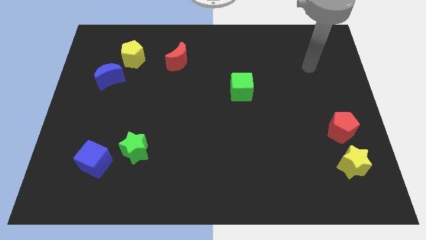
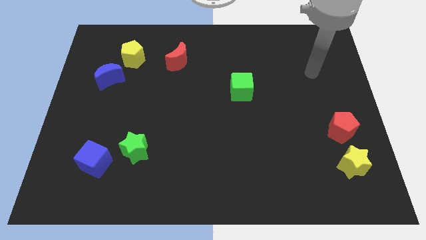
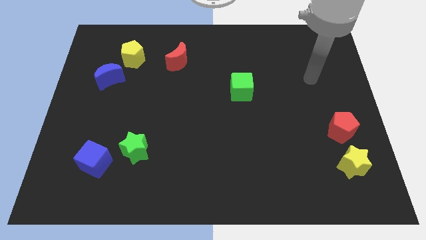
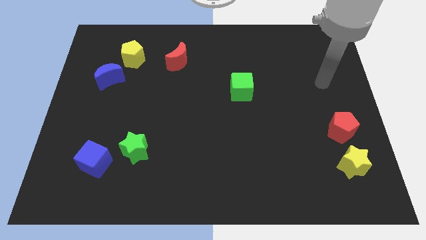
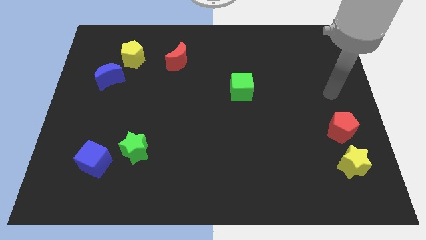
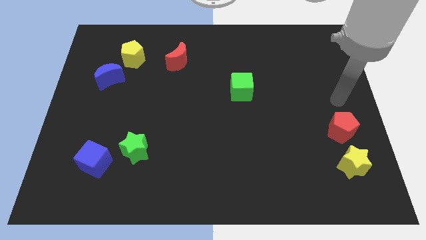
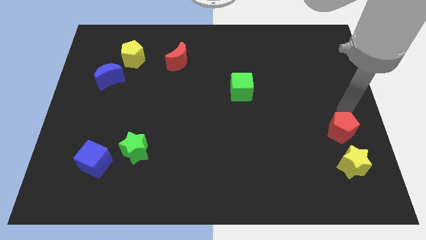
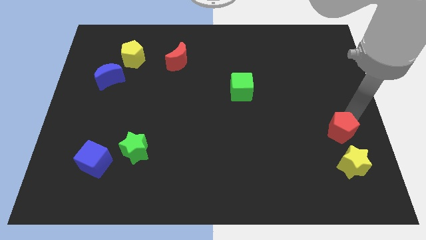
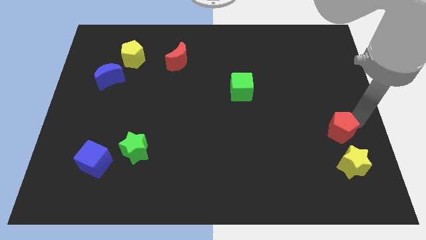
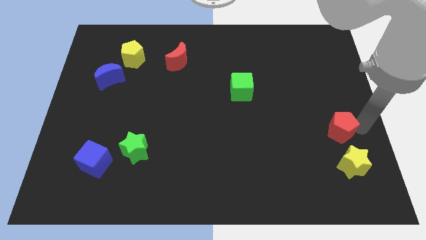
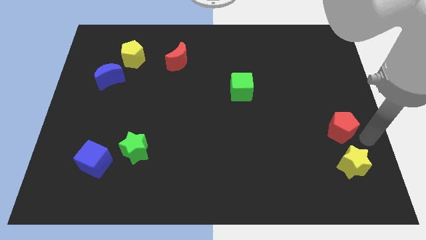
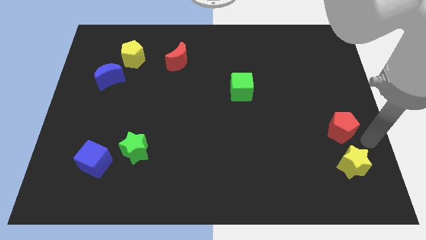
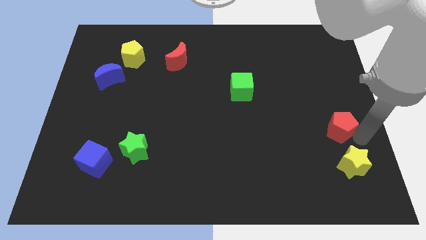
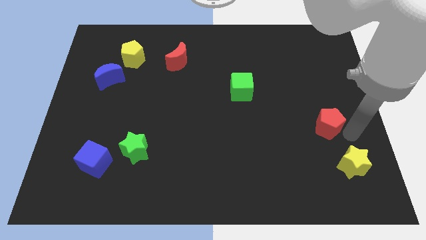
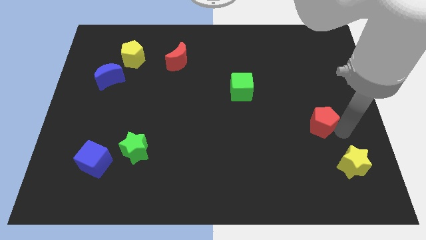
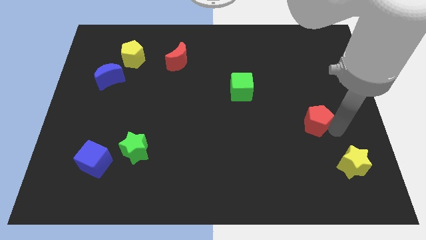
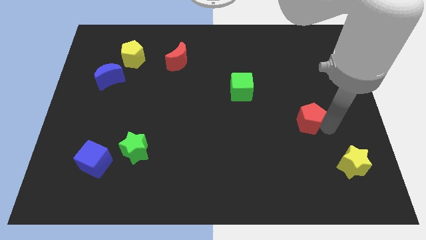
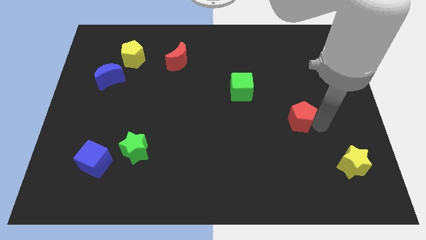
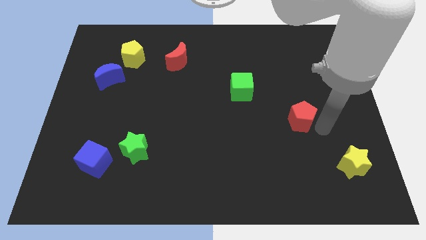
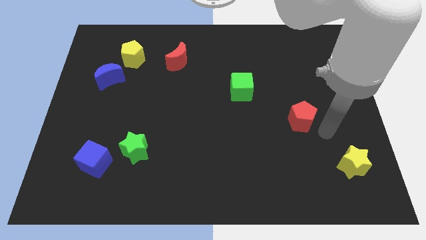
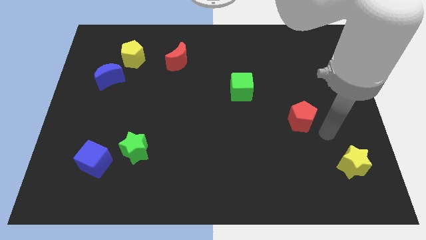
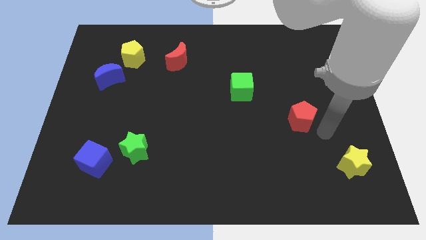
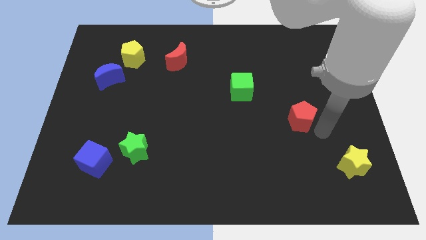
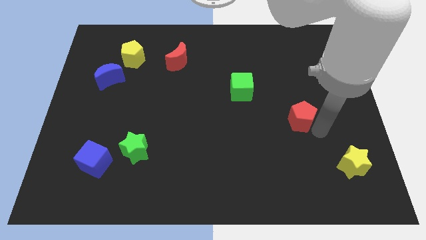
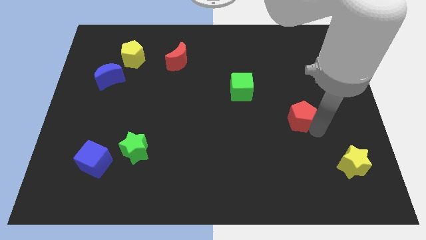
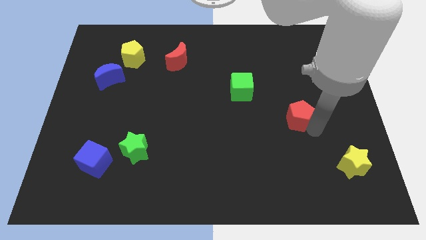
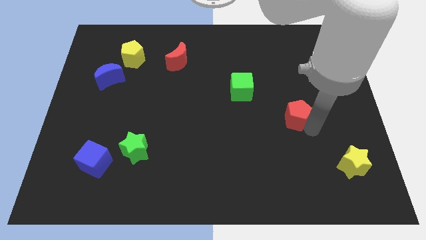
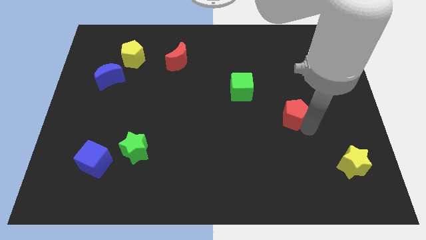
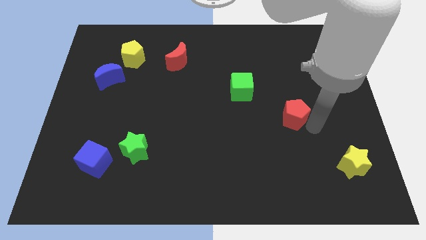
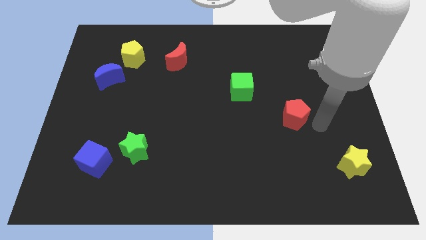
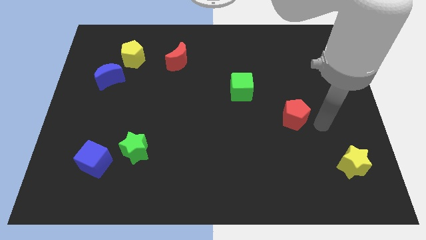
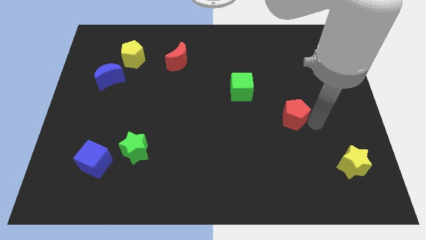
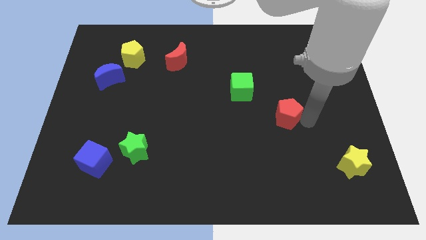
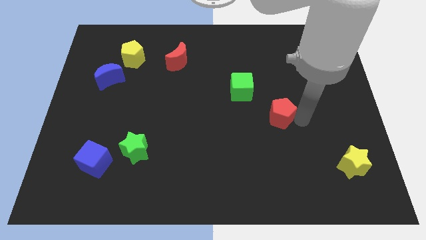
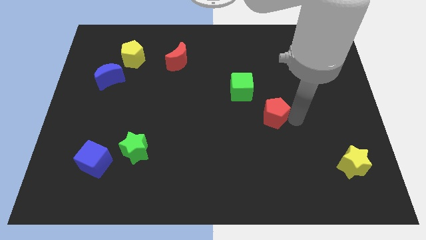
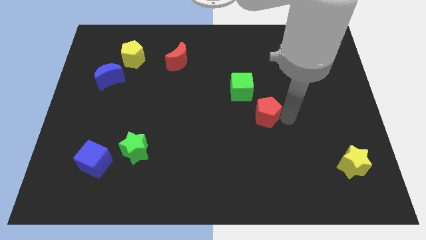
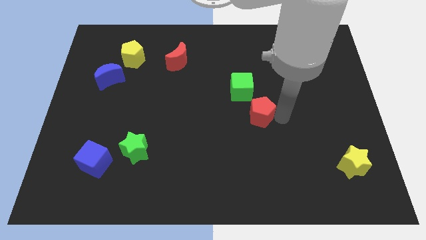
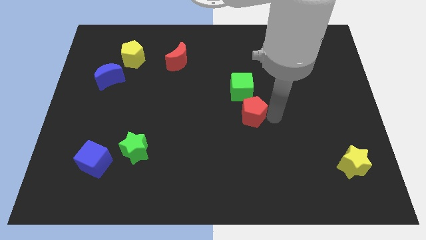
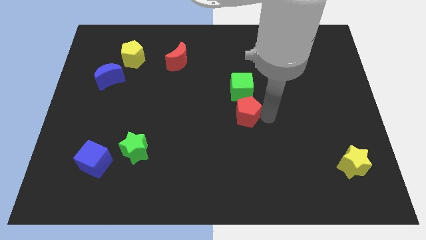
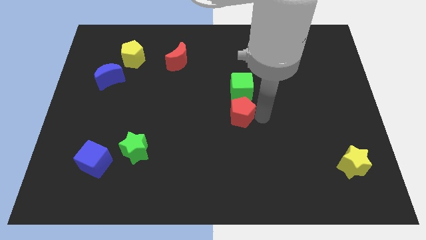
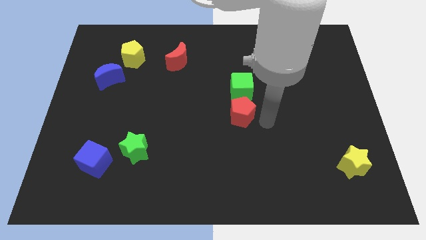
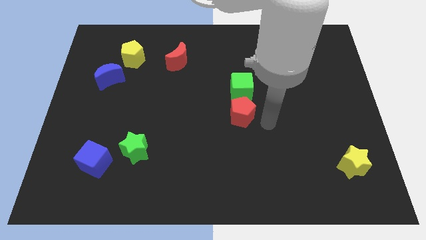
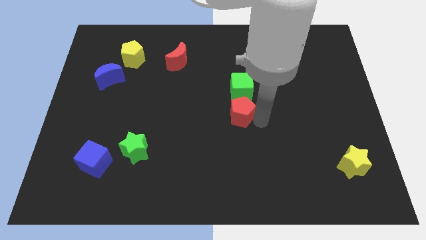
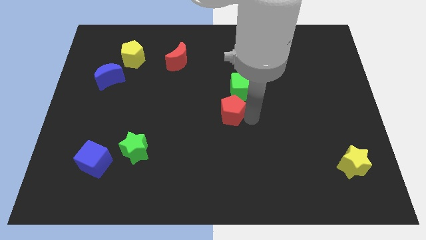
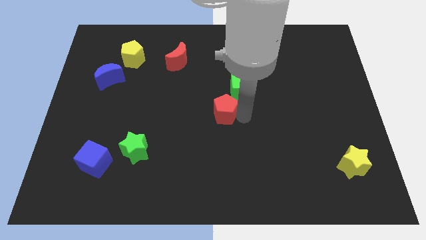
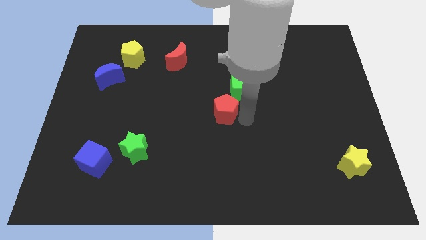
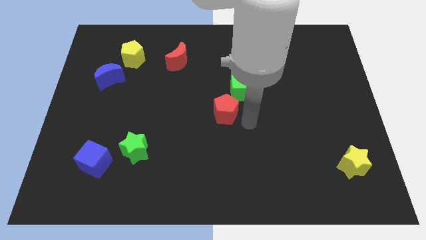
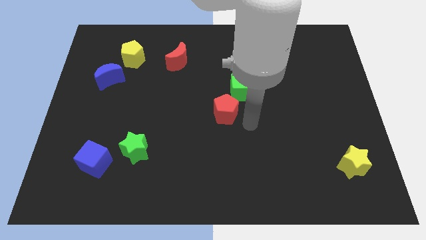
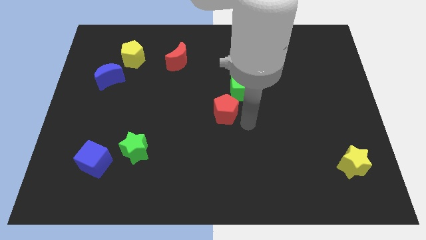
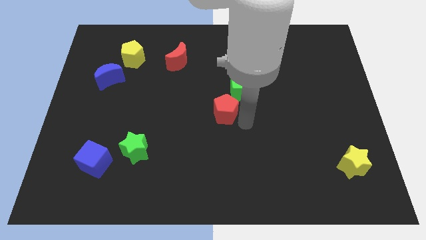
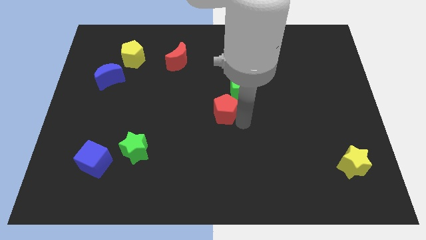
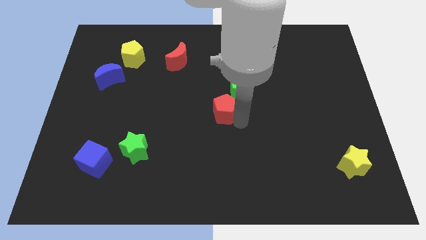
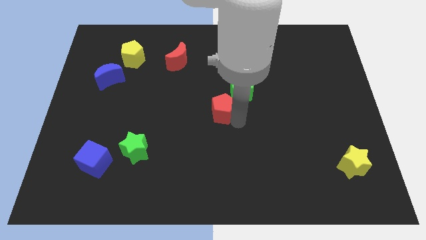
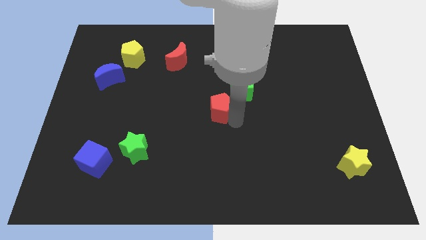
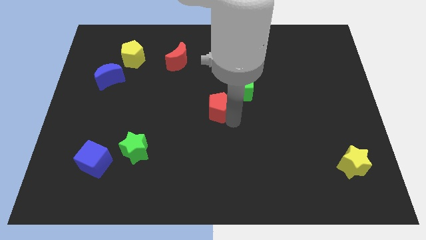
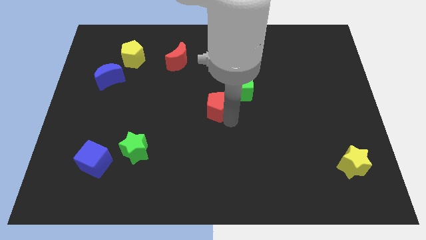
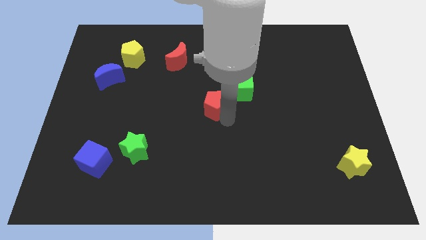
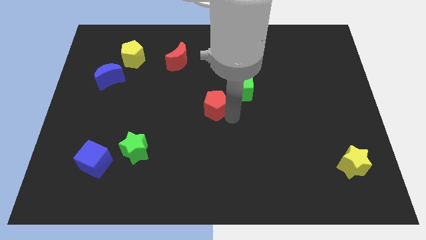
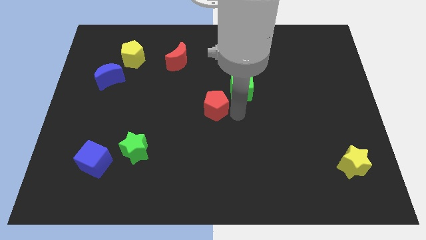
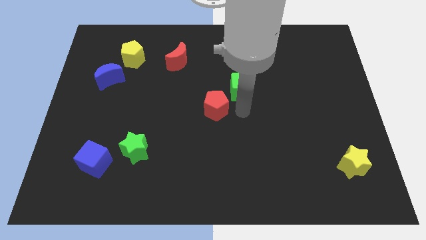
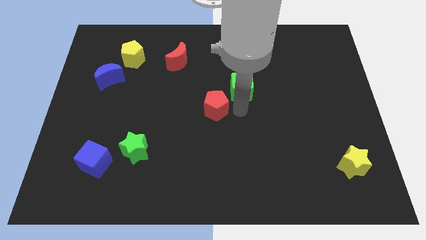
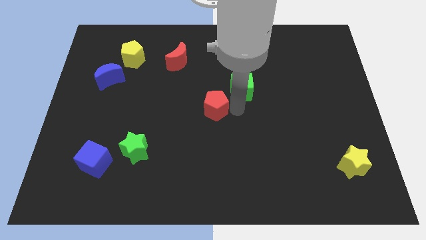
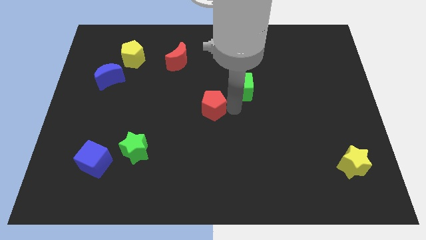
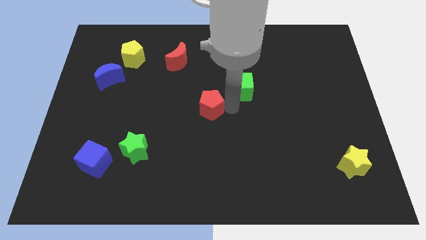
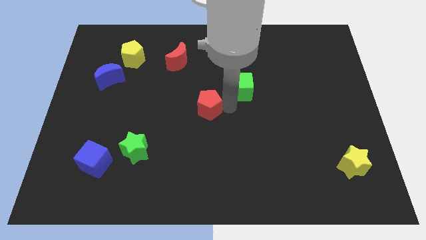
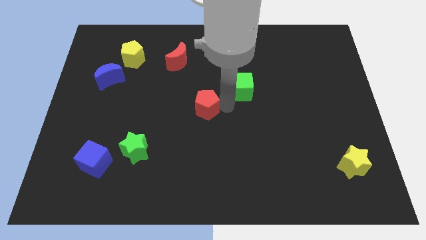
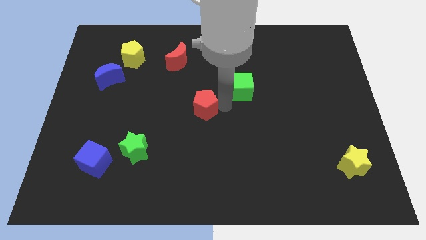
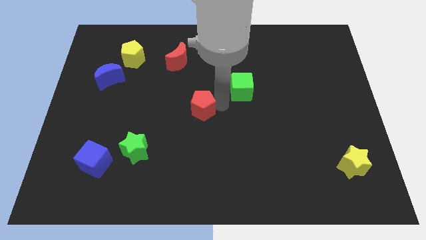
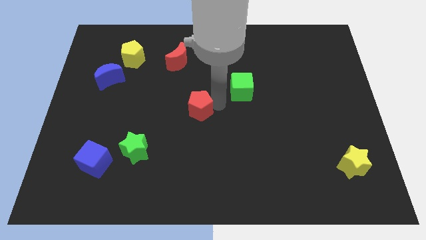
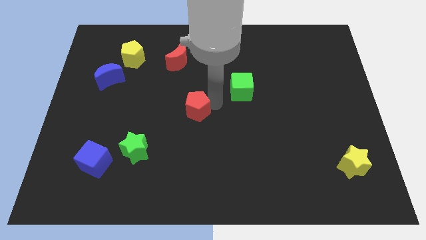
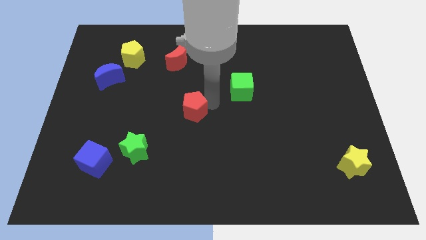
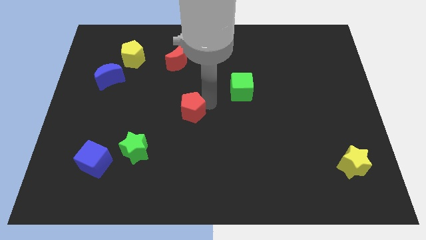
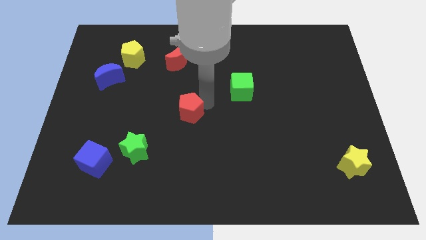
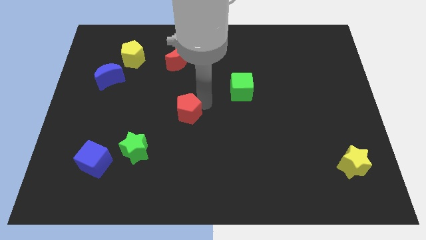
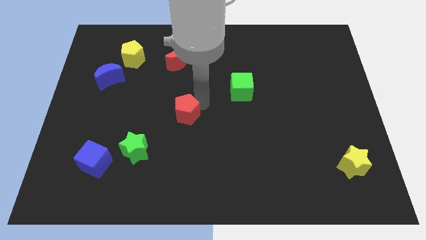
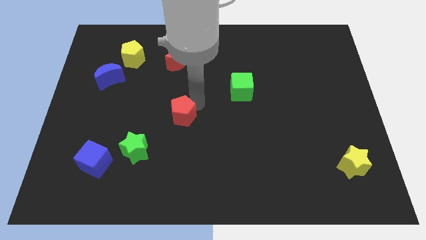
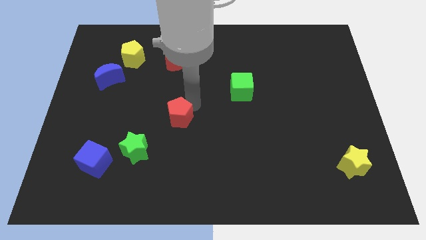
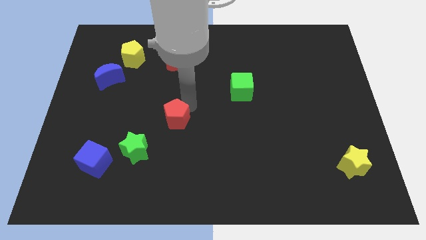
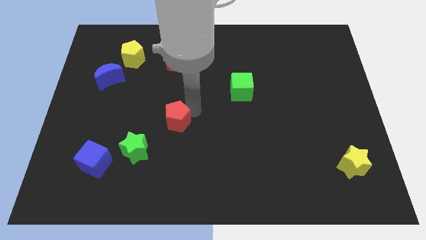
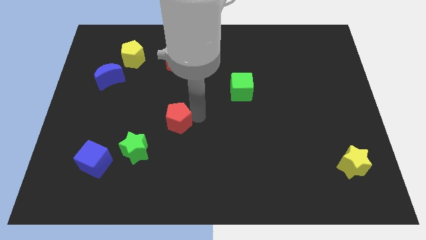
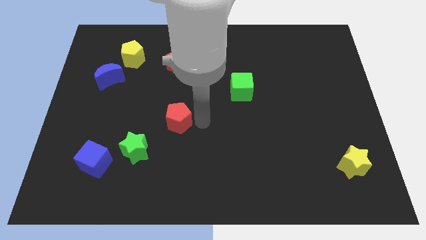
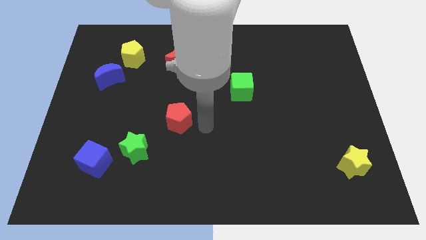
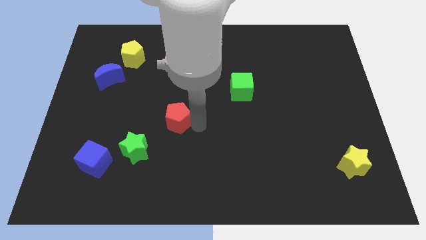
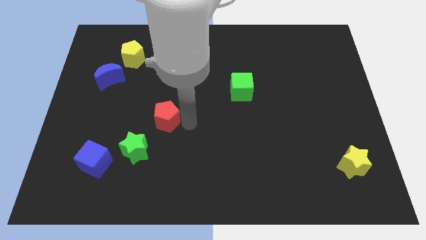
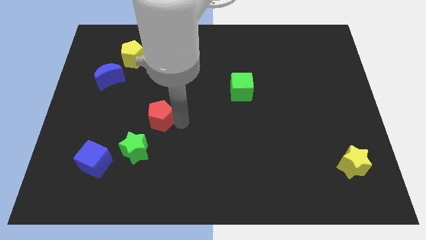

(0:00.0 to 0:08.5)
slide the red pentagon to the top side of the green star
